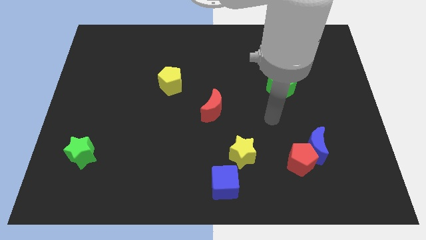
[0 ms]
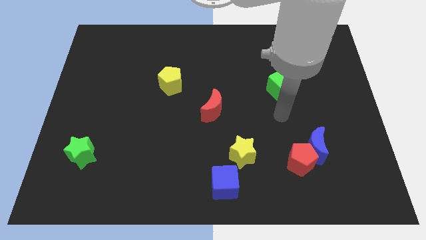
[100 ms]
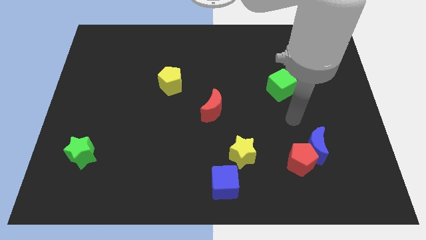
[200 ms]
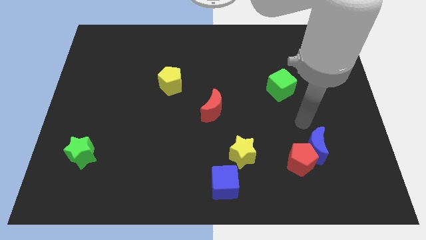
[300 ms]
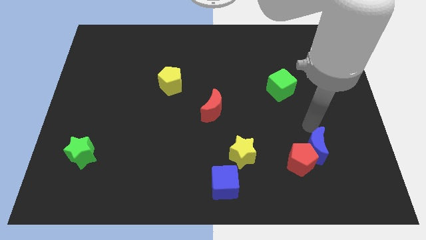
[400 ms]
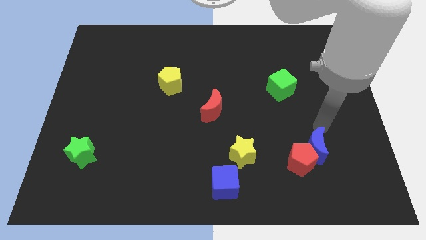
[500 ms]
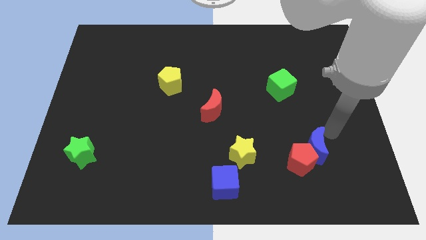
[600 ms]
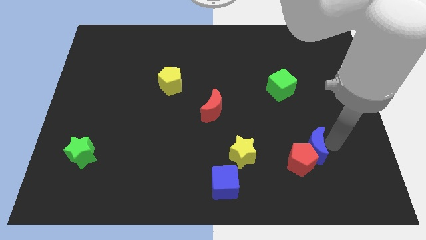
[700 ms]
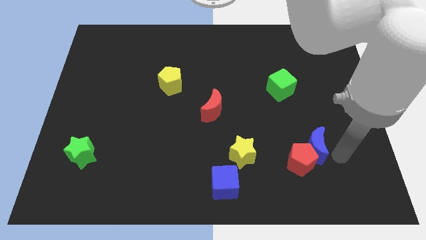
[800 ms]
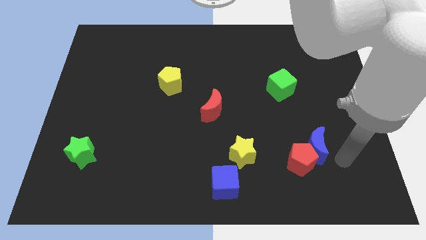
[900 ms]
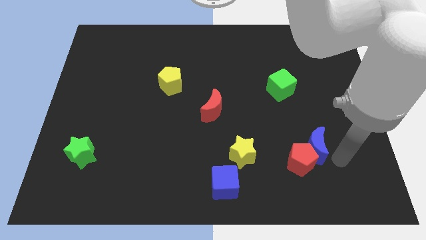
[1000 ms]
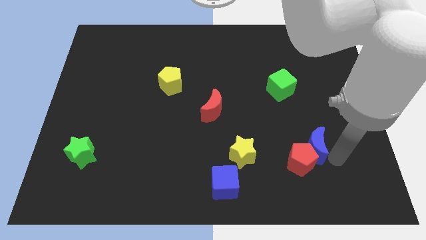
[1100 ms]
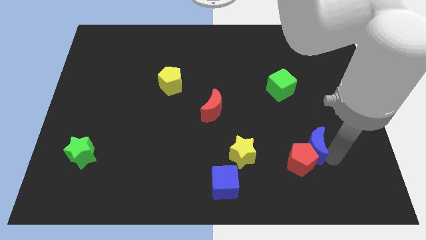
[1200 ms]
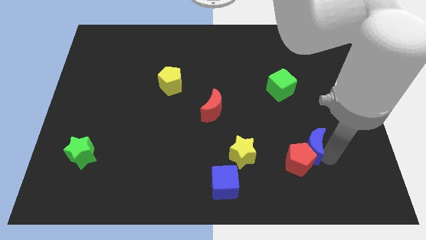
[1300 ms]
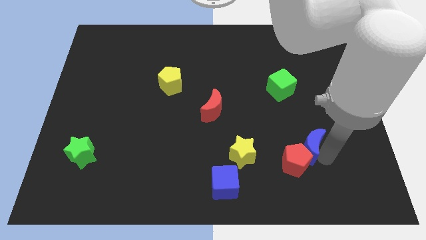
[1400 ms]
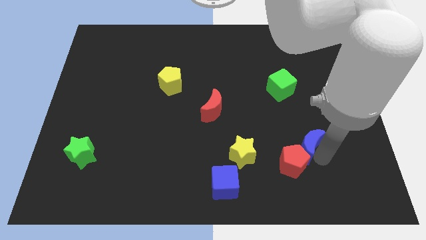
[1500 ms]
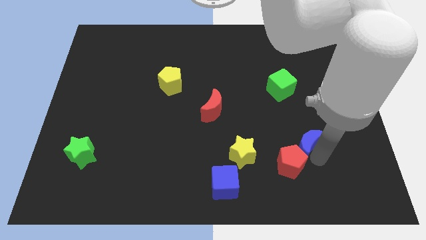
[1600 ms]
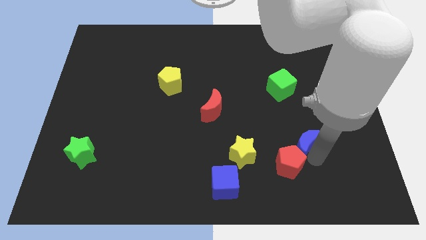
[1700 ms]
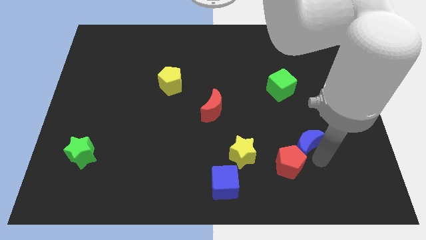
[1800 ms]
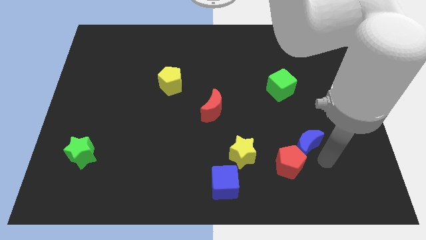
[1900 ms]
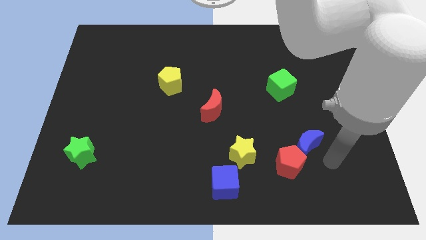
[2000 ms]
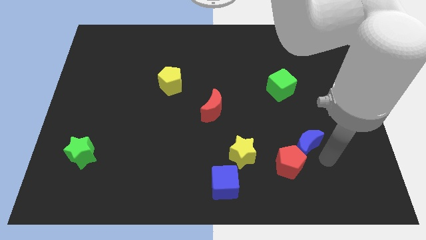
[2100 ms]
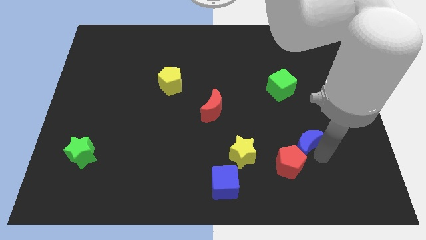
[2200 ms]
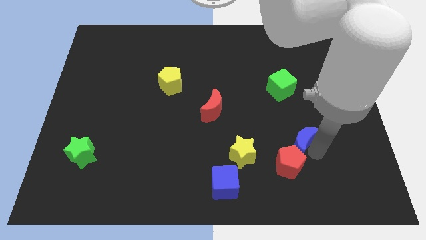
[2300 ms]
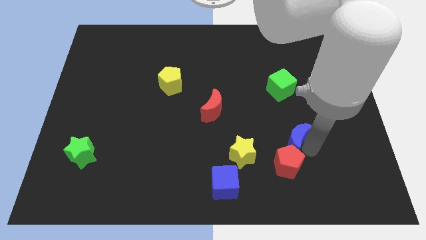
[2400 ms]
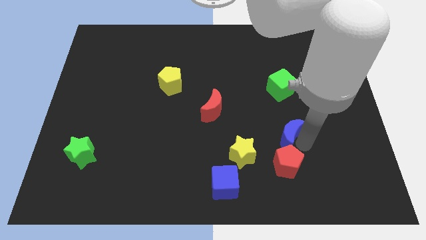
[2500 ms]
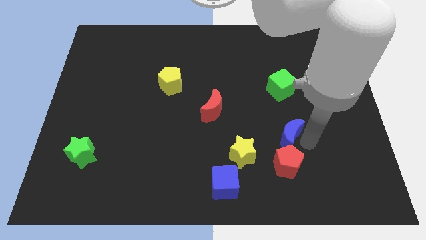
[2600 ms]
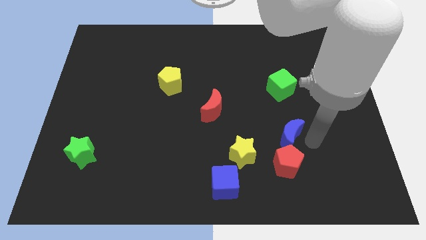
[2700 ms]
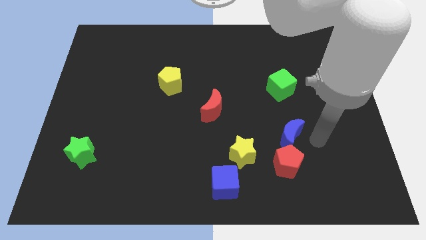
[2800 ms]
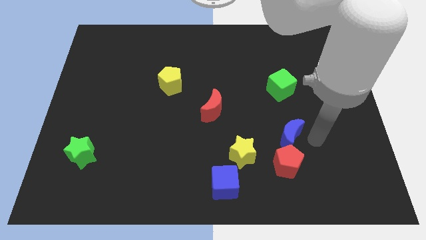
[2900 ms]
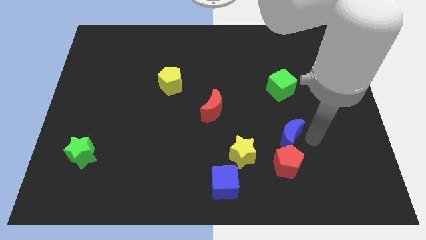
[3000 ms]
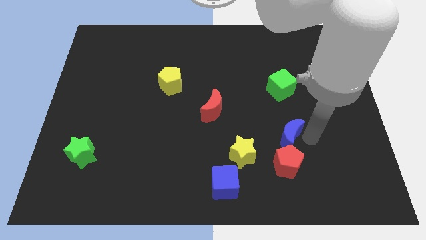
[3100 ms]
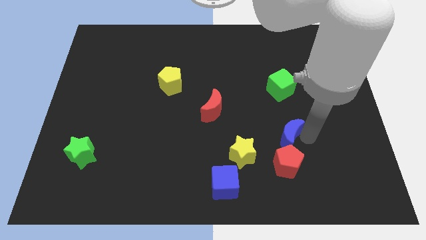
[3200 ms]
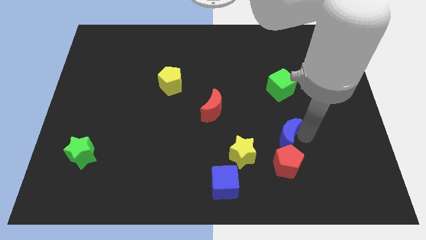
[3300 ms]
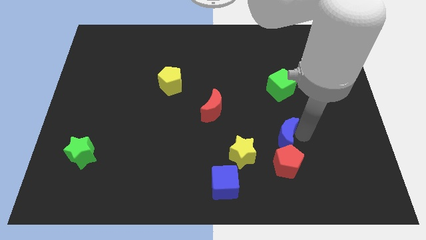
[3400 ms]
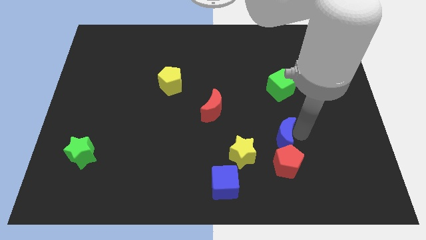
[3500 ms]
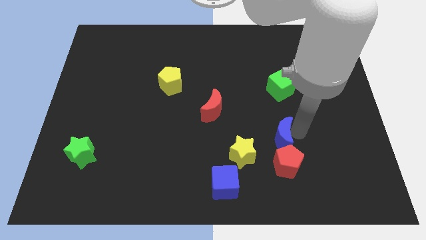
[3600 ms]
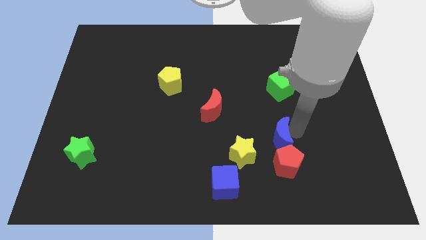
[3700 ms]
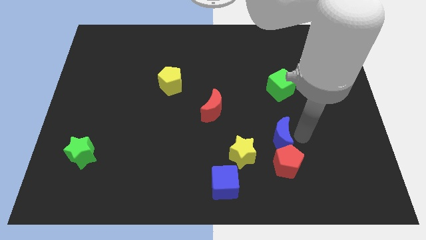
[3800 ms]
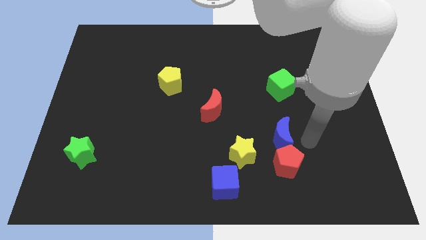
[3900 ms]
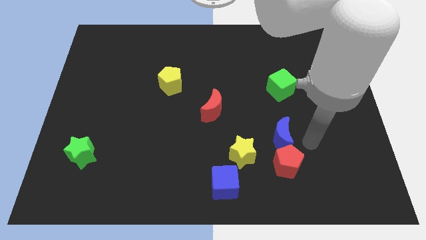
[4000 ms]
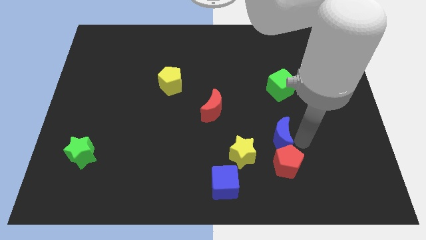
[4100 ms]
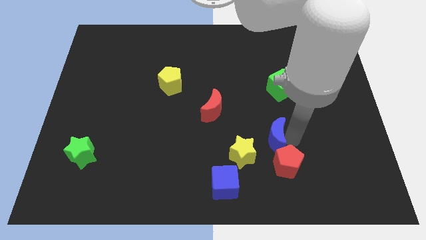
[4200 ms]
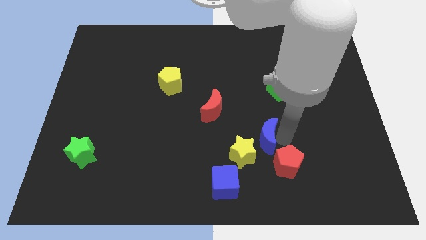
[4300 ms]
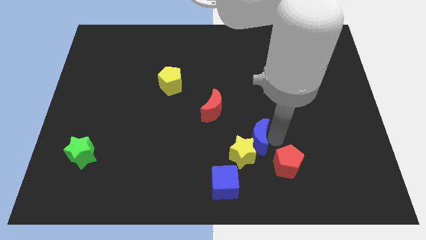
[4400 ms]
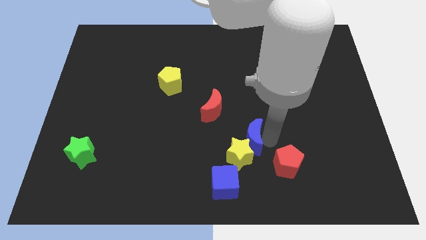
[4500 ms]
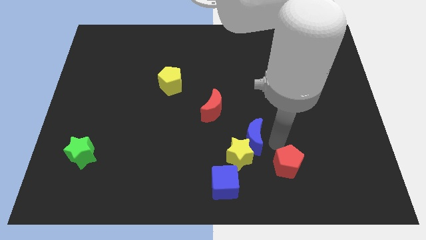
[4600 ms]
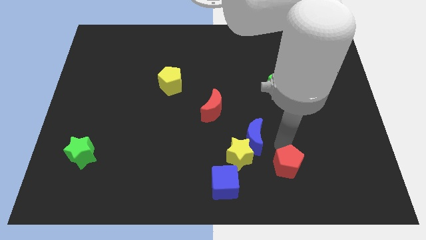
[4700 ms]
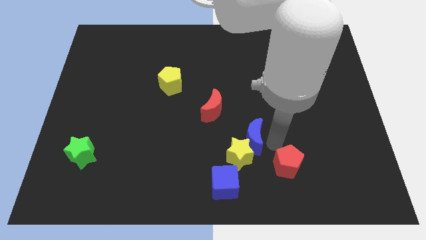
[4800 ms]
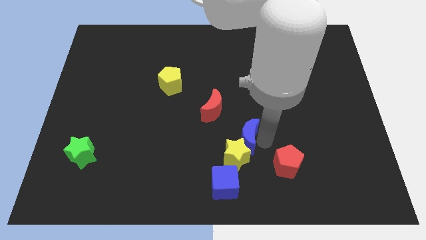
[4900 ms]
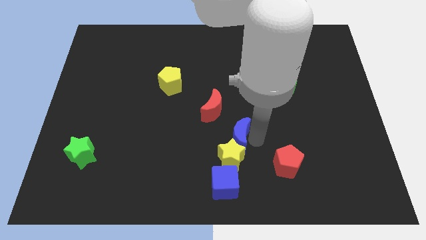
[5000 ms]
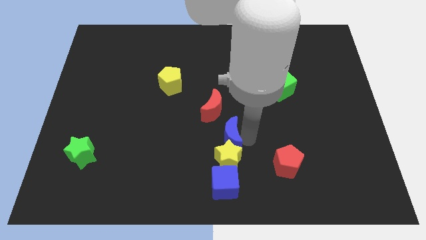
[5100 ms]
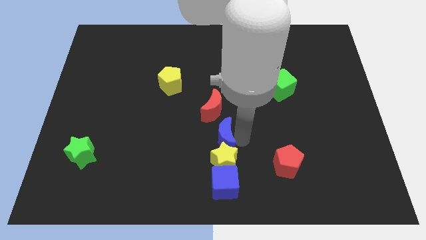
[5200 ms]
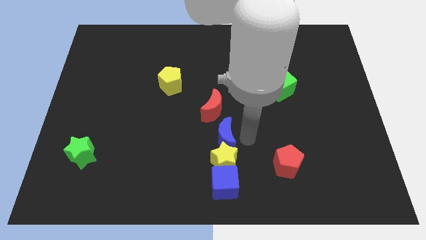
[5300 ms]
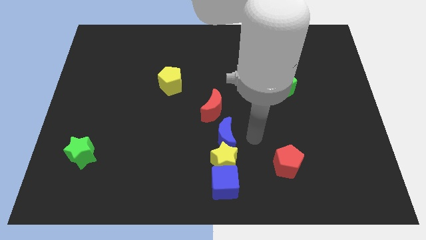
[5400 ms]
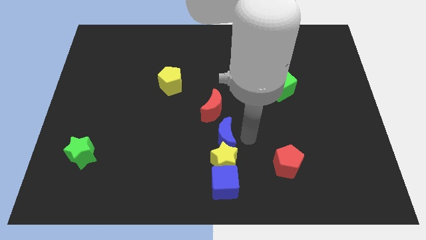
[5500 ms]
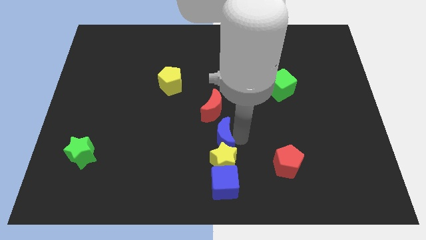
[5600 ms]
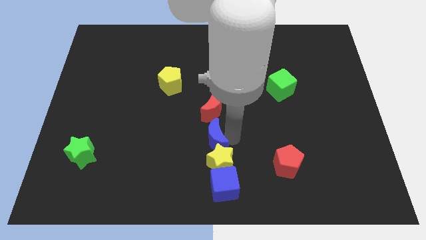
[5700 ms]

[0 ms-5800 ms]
move the blue moon left

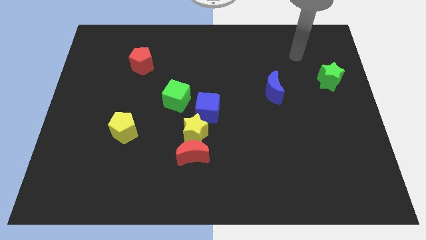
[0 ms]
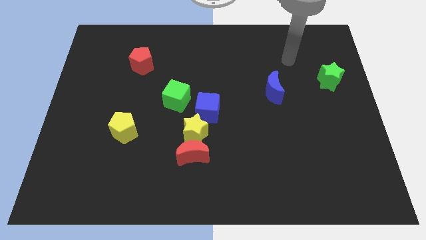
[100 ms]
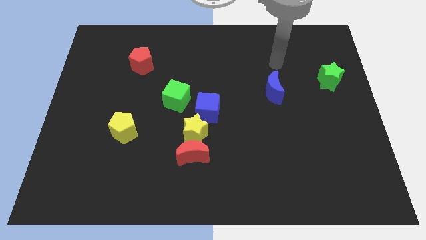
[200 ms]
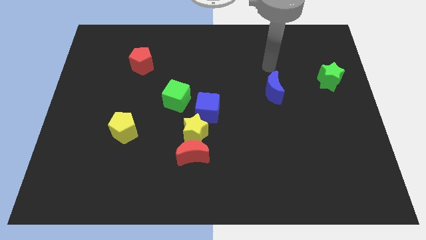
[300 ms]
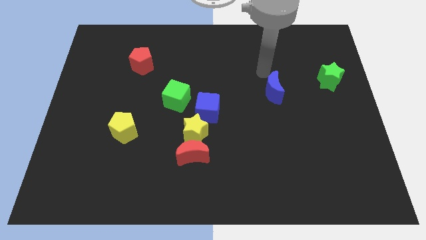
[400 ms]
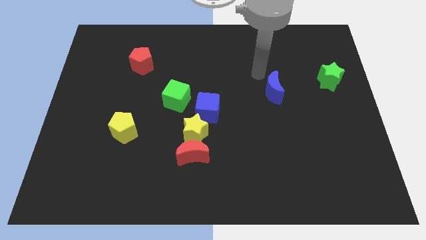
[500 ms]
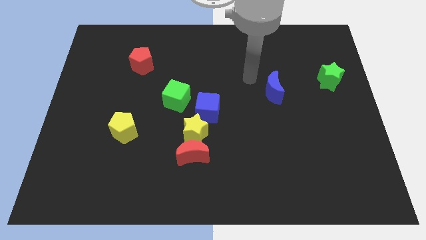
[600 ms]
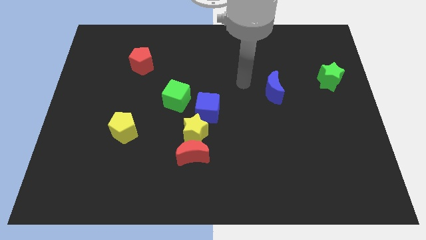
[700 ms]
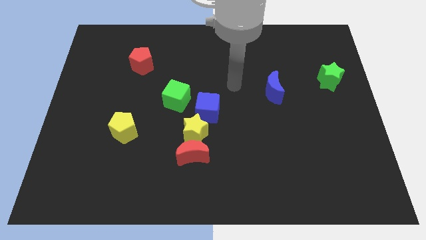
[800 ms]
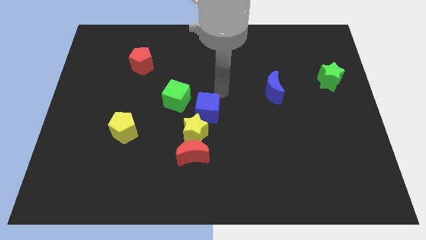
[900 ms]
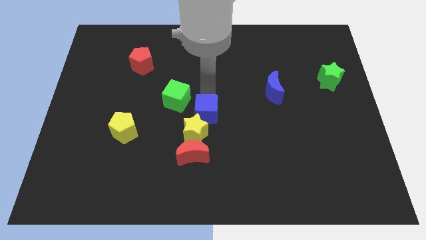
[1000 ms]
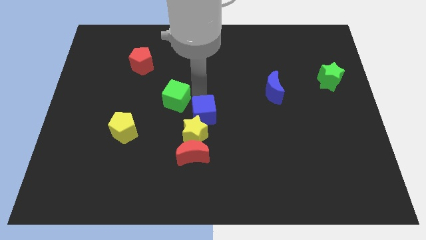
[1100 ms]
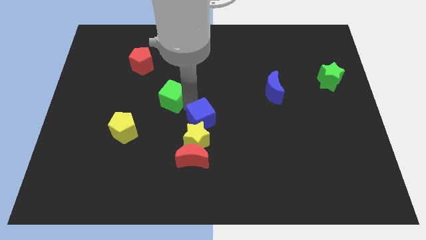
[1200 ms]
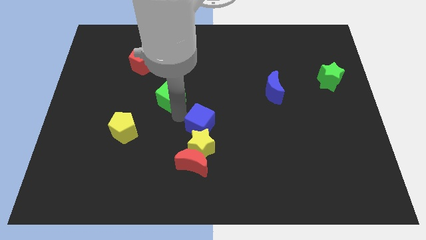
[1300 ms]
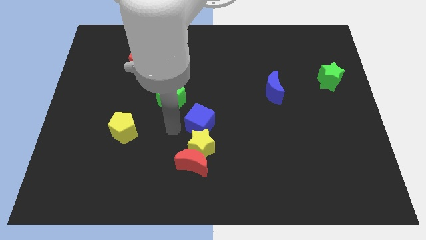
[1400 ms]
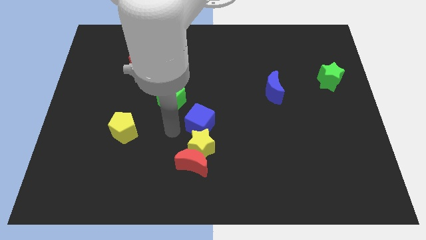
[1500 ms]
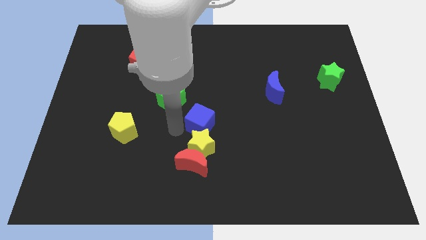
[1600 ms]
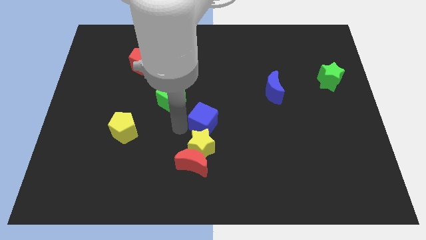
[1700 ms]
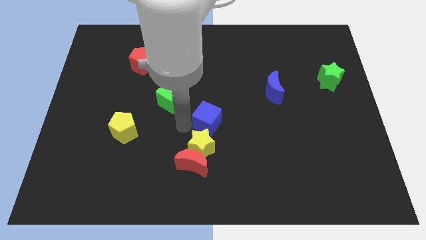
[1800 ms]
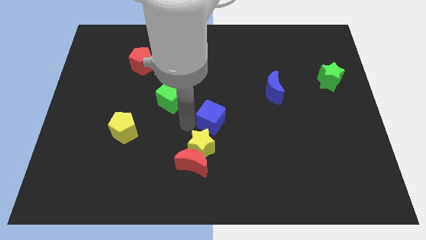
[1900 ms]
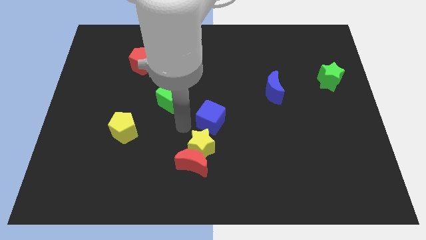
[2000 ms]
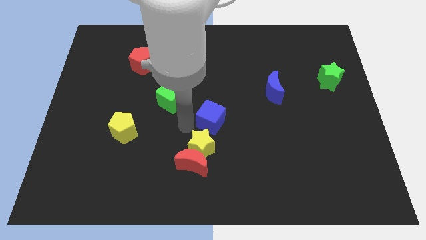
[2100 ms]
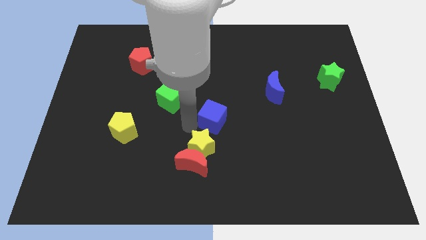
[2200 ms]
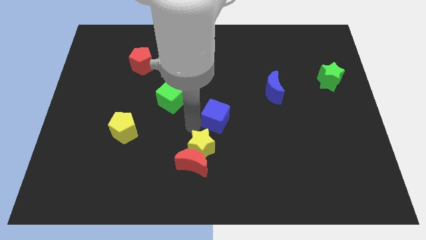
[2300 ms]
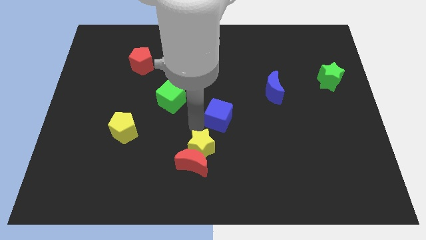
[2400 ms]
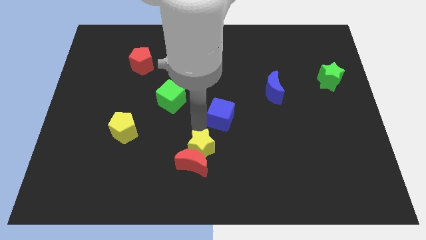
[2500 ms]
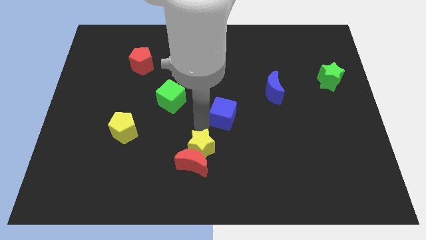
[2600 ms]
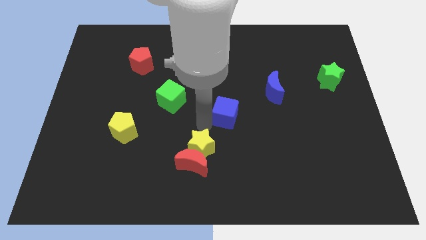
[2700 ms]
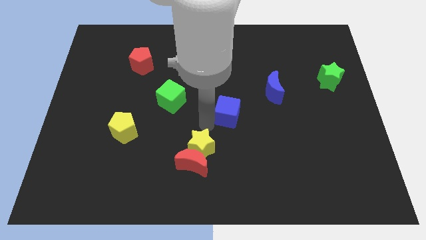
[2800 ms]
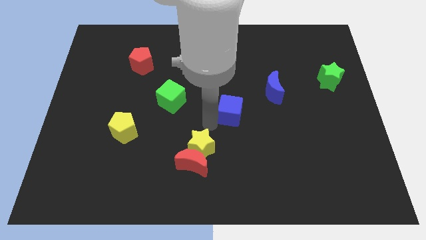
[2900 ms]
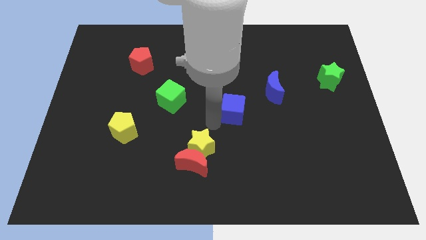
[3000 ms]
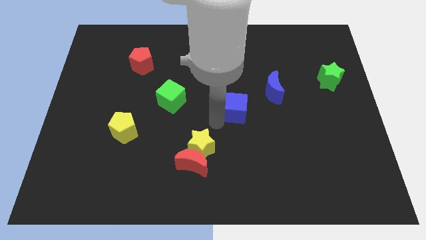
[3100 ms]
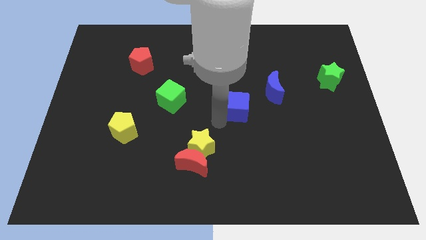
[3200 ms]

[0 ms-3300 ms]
move the blue cube to the right a little bit
